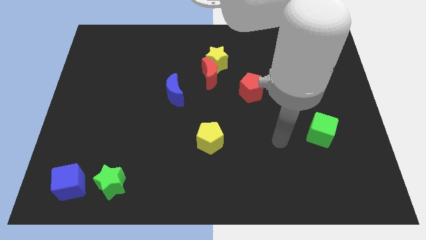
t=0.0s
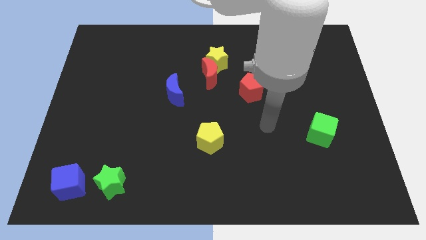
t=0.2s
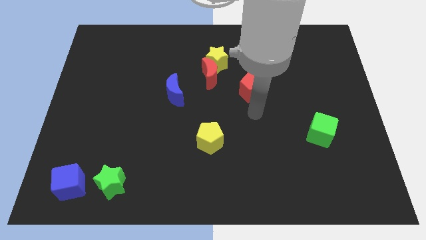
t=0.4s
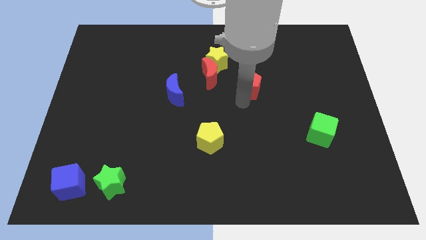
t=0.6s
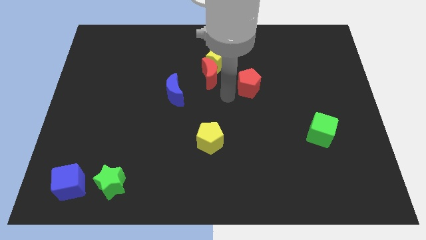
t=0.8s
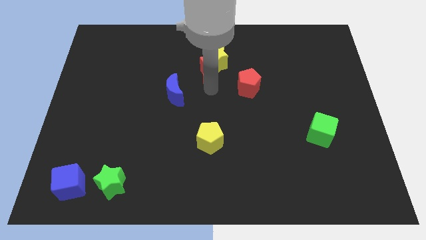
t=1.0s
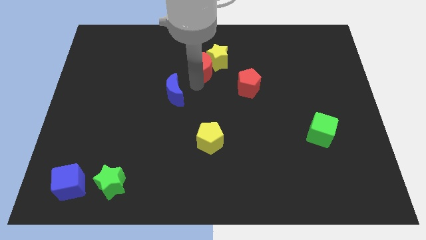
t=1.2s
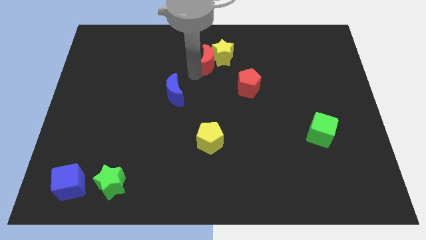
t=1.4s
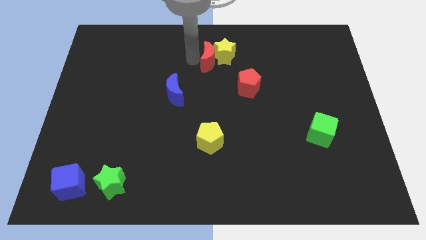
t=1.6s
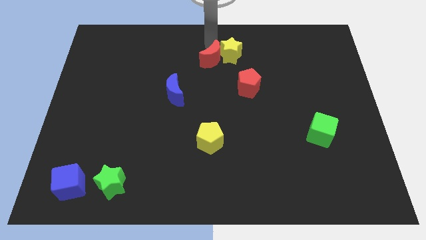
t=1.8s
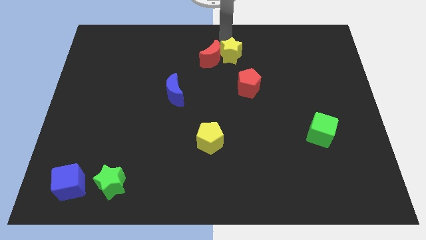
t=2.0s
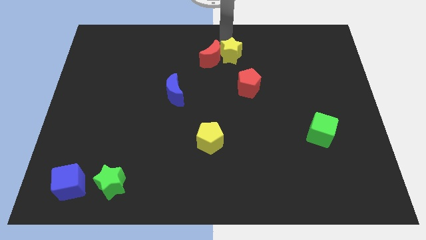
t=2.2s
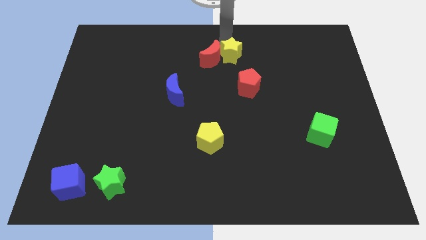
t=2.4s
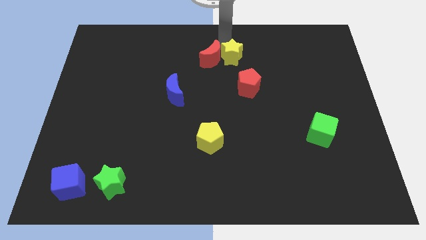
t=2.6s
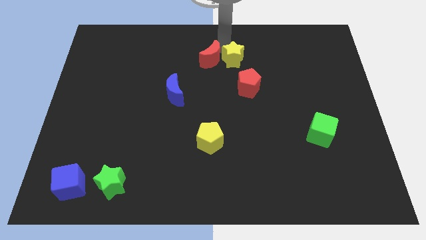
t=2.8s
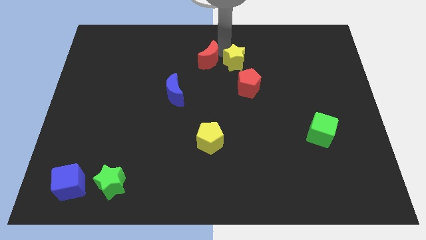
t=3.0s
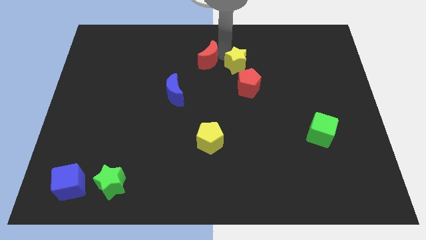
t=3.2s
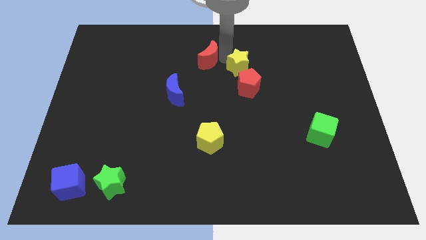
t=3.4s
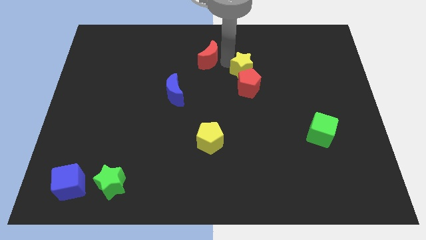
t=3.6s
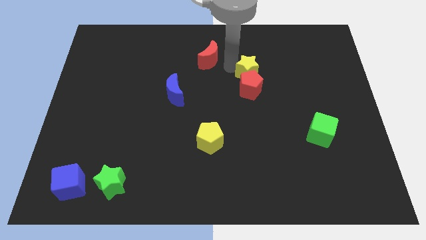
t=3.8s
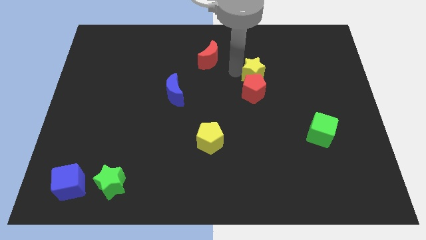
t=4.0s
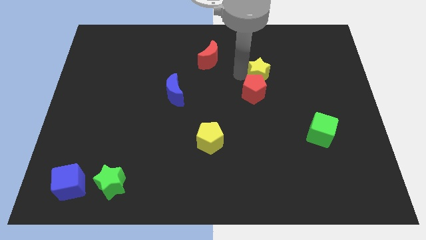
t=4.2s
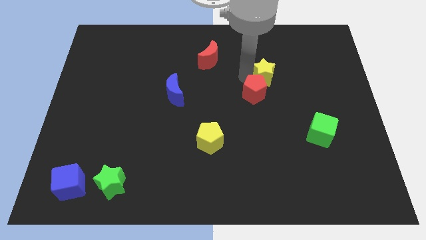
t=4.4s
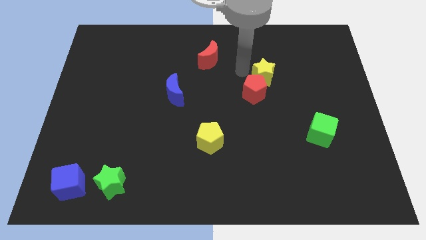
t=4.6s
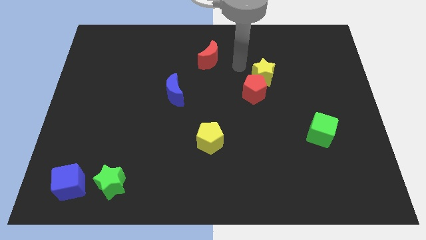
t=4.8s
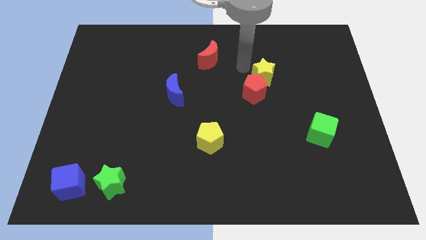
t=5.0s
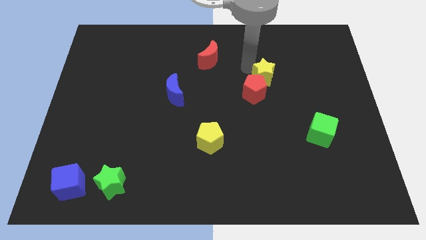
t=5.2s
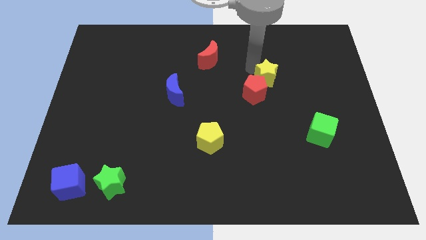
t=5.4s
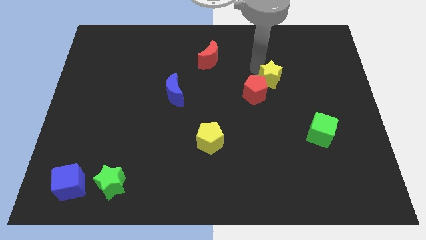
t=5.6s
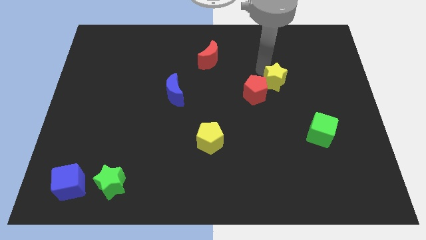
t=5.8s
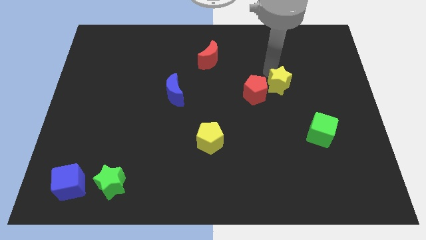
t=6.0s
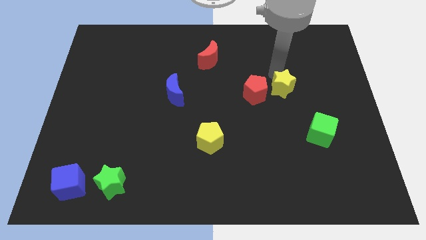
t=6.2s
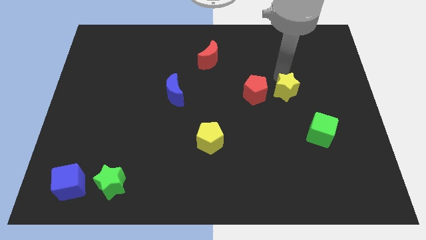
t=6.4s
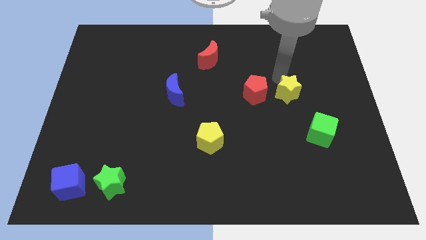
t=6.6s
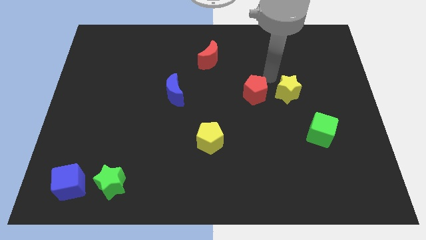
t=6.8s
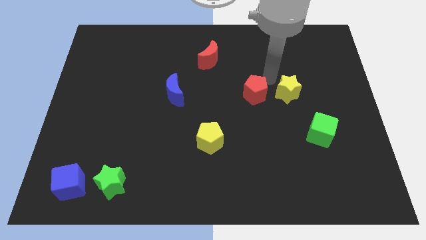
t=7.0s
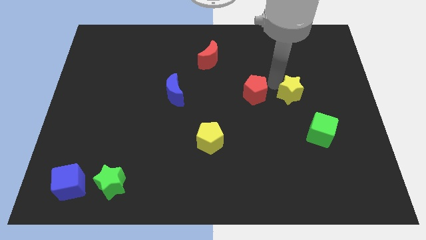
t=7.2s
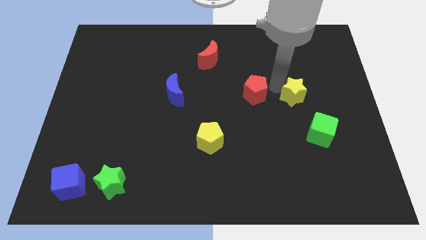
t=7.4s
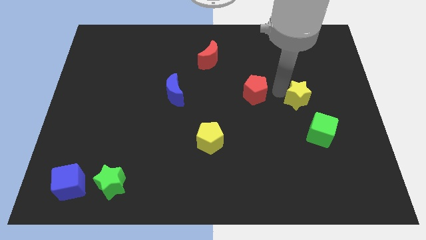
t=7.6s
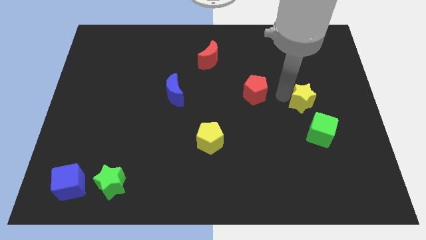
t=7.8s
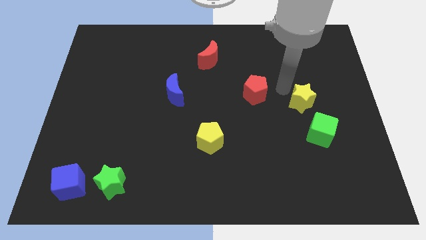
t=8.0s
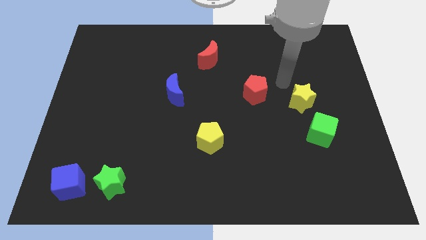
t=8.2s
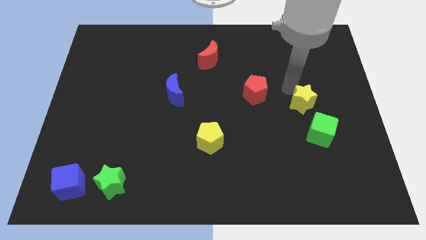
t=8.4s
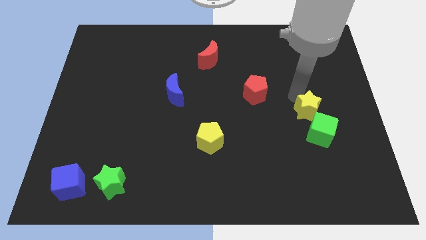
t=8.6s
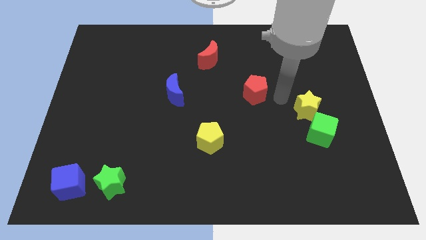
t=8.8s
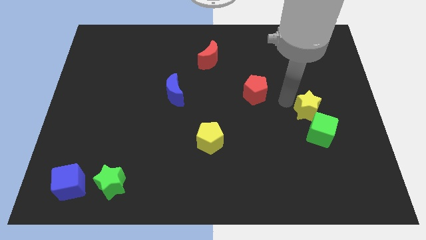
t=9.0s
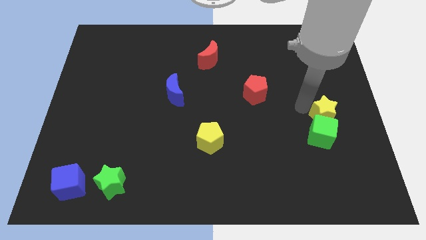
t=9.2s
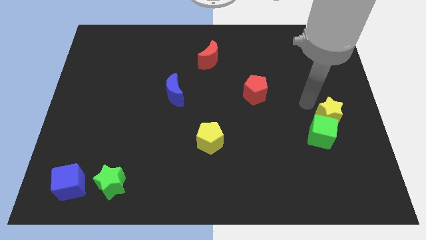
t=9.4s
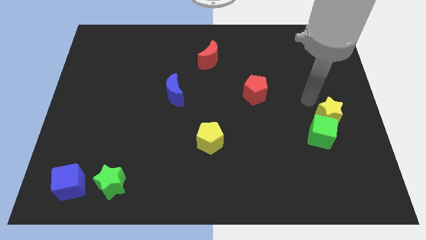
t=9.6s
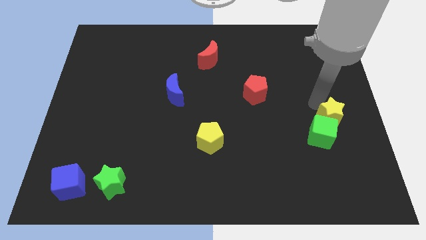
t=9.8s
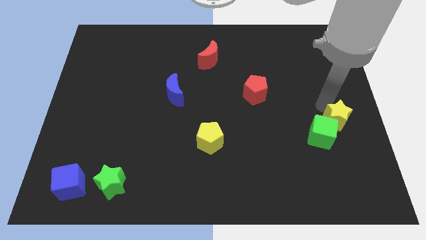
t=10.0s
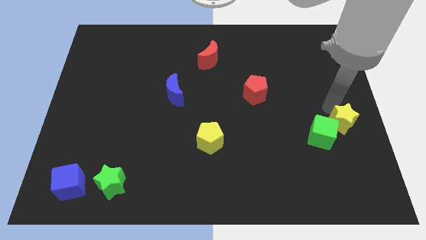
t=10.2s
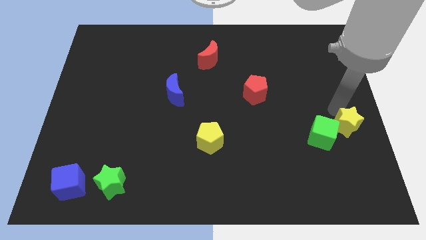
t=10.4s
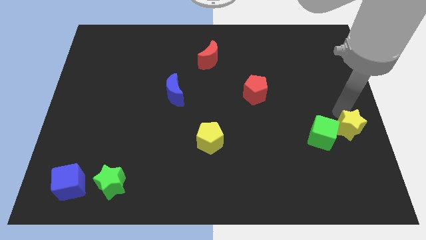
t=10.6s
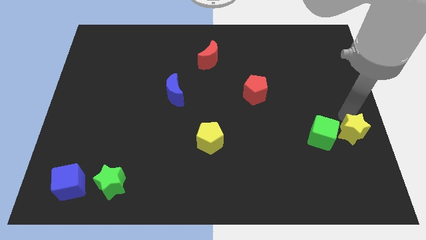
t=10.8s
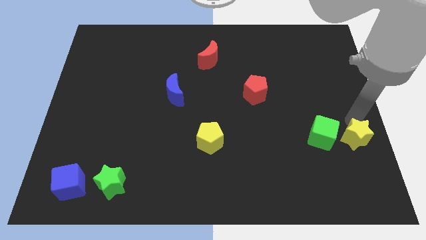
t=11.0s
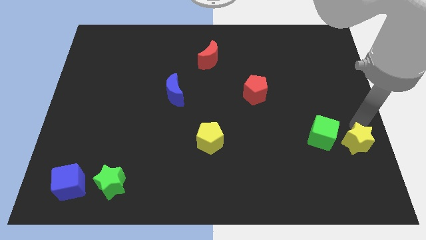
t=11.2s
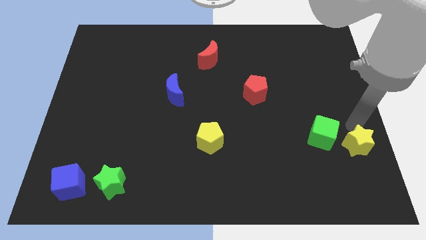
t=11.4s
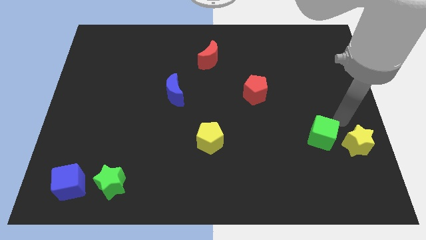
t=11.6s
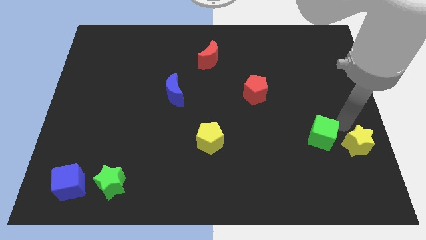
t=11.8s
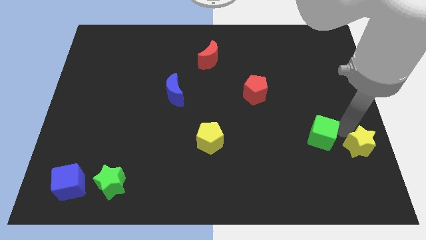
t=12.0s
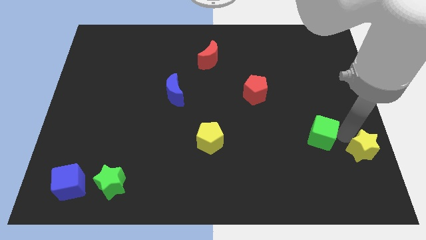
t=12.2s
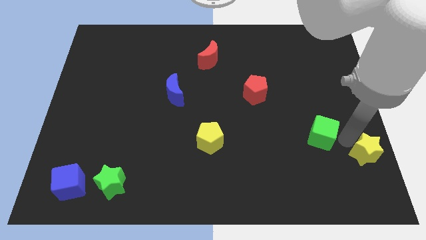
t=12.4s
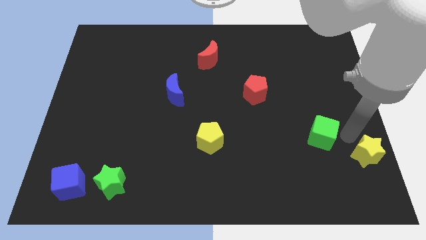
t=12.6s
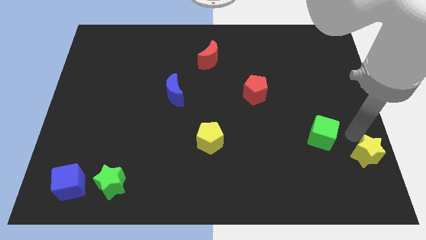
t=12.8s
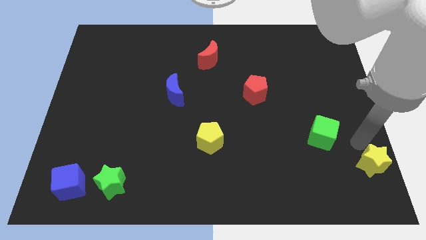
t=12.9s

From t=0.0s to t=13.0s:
put the yellow star to the bottom right

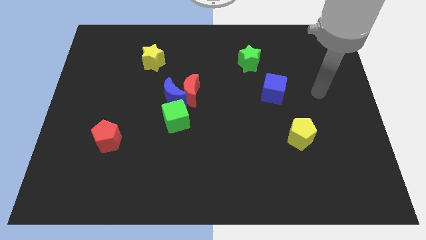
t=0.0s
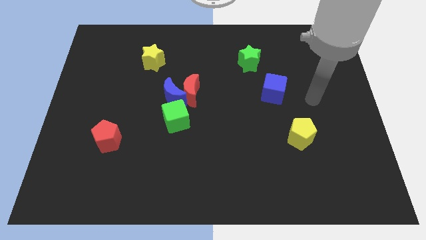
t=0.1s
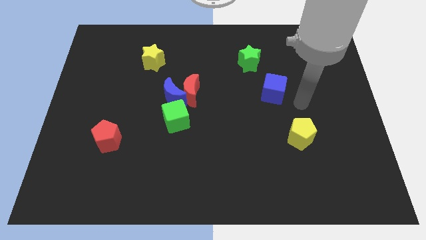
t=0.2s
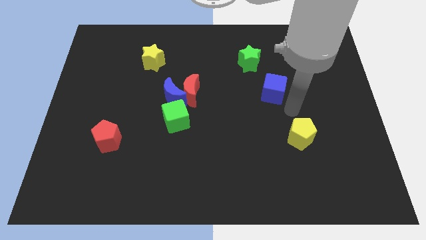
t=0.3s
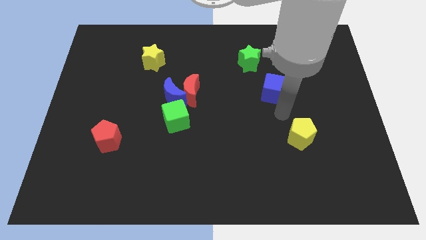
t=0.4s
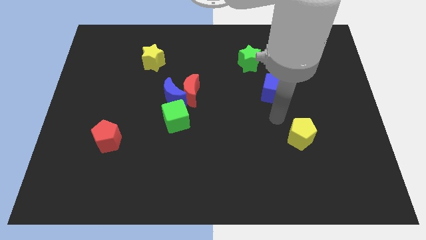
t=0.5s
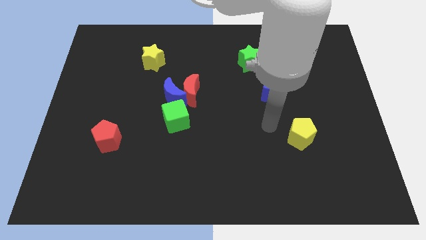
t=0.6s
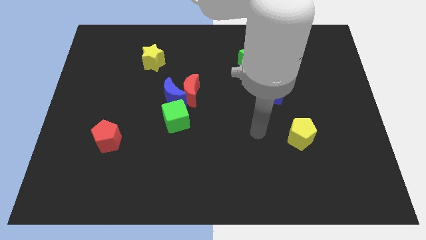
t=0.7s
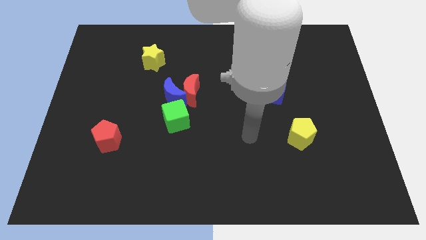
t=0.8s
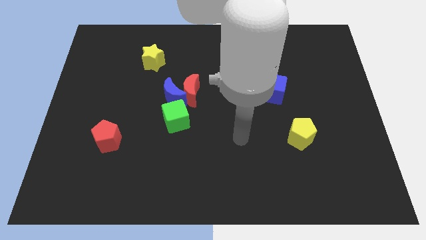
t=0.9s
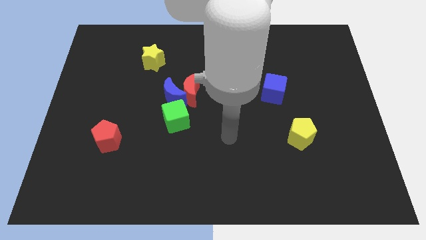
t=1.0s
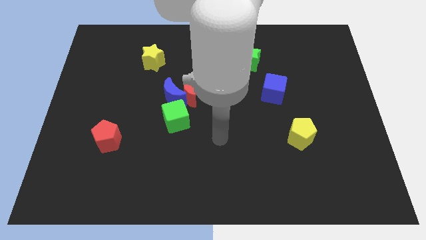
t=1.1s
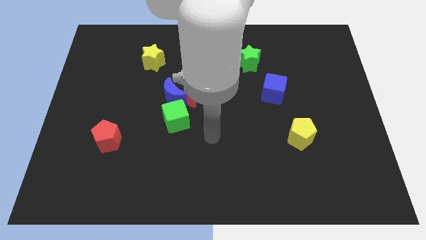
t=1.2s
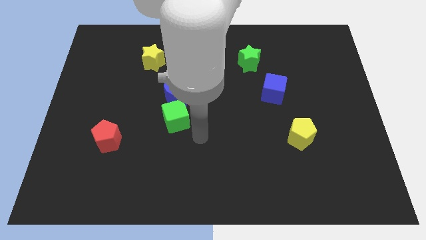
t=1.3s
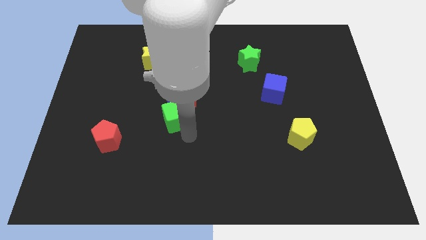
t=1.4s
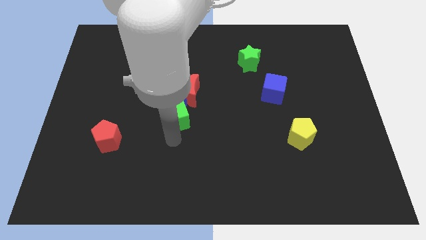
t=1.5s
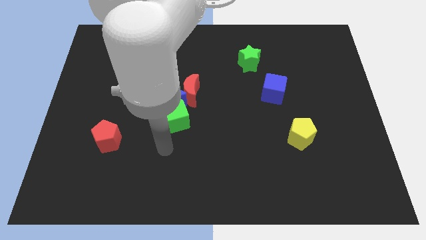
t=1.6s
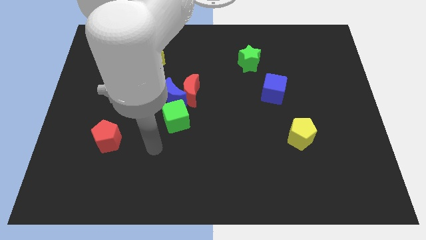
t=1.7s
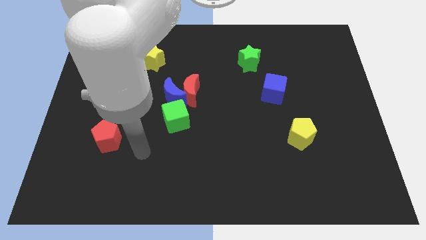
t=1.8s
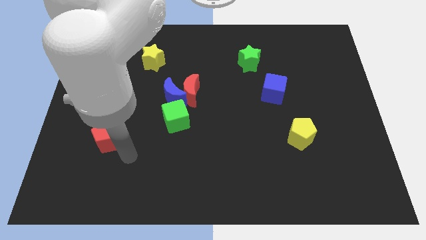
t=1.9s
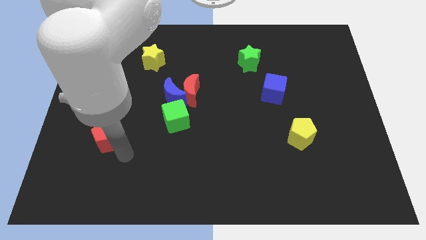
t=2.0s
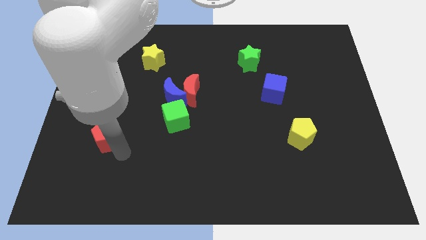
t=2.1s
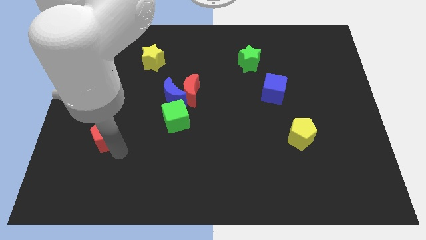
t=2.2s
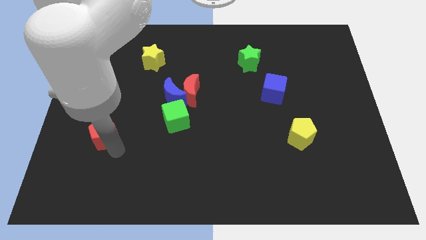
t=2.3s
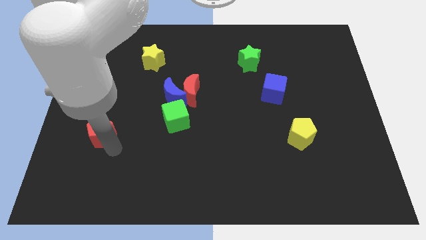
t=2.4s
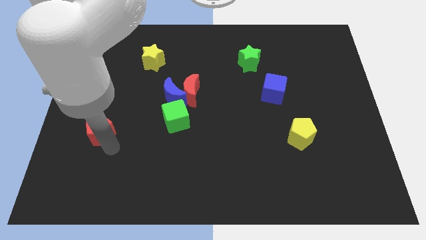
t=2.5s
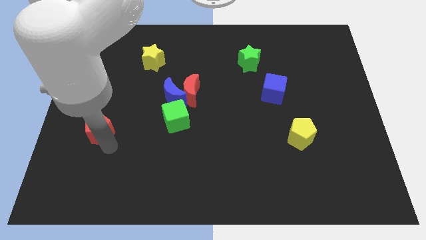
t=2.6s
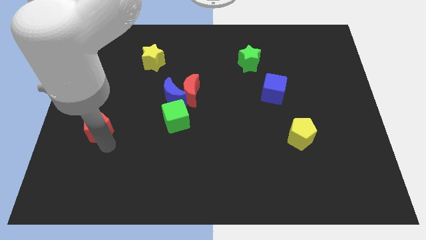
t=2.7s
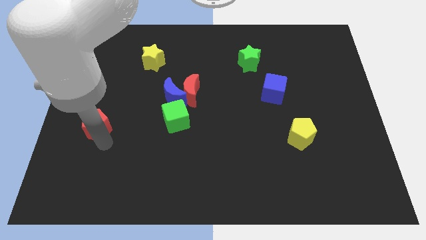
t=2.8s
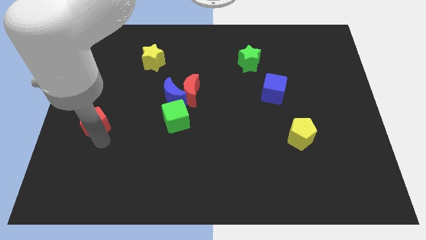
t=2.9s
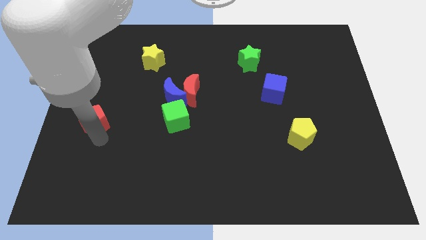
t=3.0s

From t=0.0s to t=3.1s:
move the red pentagon to the left side of the board
